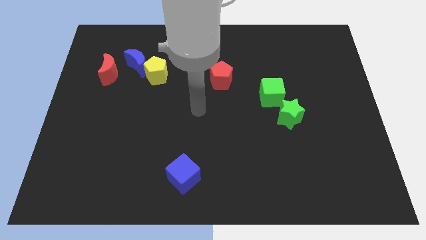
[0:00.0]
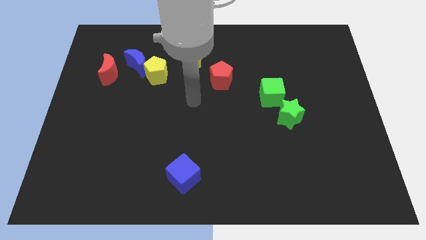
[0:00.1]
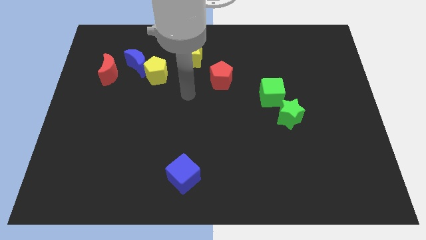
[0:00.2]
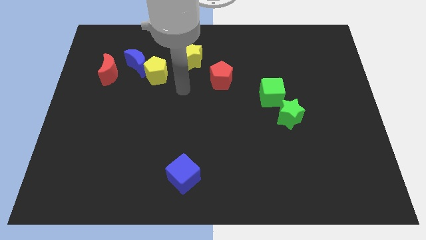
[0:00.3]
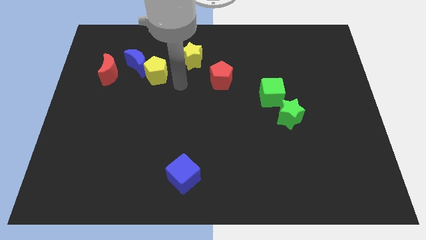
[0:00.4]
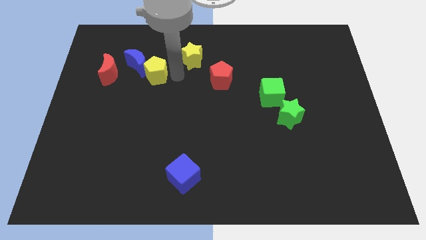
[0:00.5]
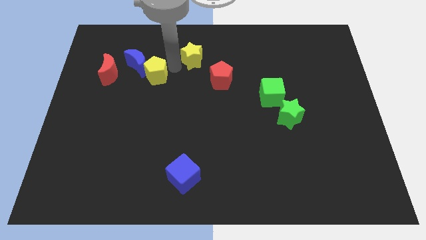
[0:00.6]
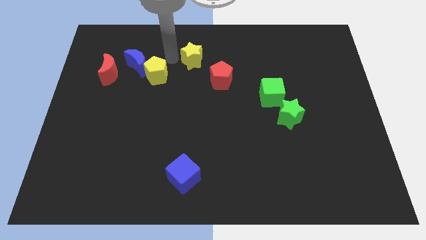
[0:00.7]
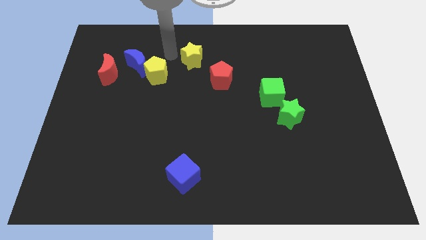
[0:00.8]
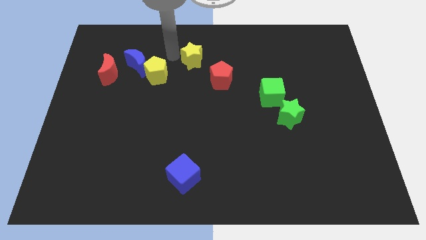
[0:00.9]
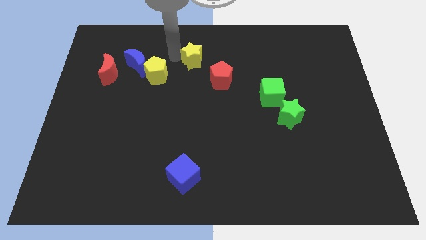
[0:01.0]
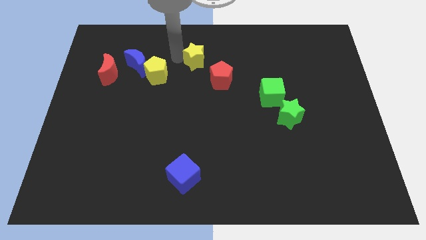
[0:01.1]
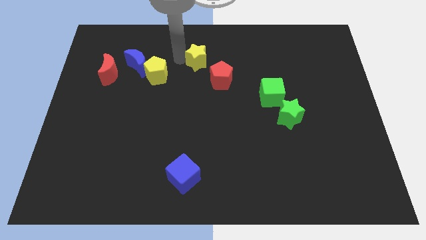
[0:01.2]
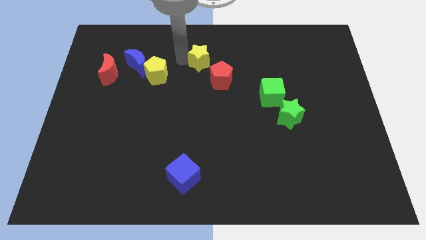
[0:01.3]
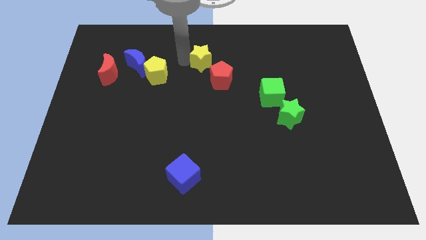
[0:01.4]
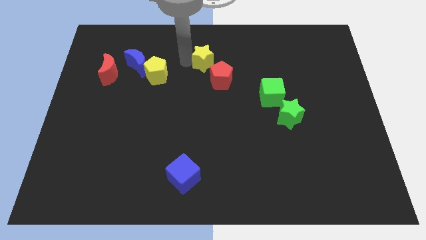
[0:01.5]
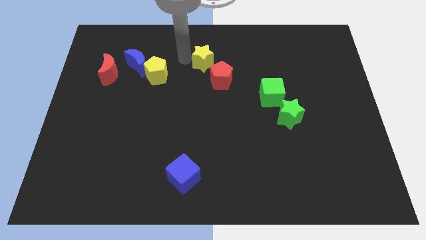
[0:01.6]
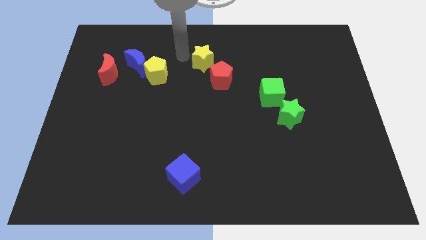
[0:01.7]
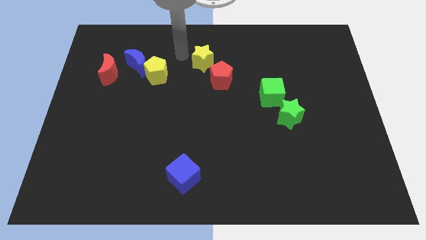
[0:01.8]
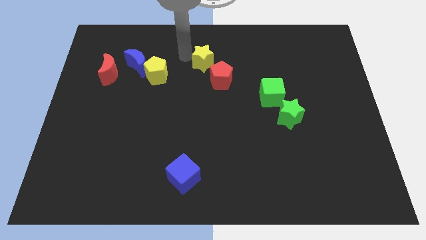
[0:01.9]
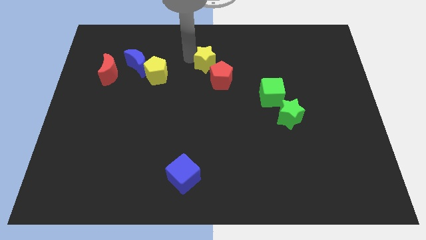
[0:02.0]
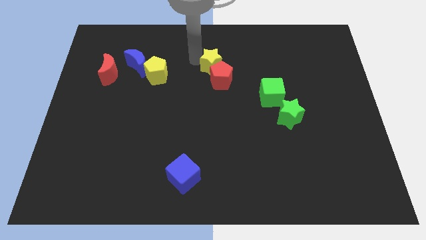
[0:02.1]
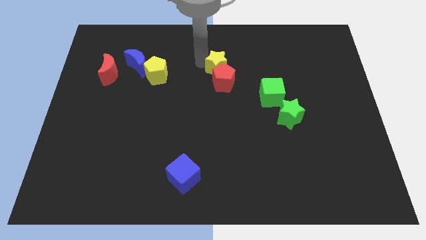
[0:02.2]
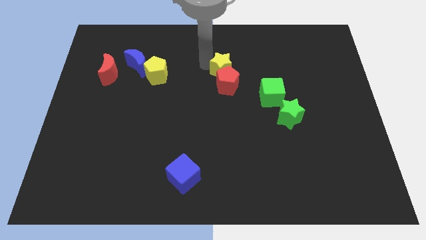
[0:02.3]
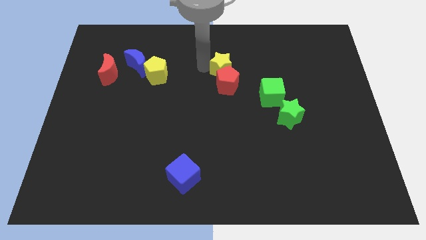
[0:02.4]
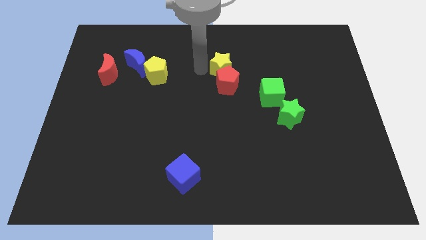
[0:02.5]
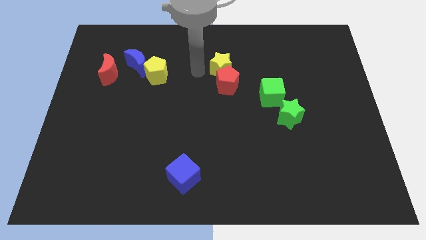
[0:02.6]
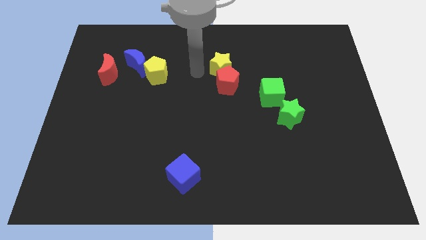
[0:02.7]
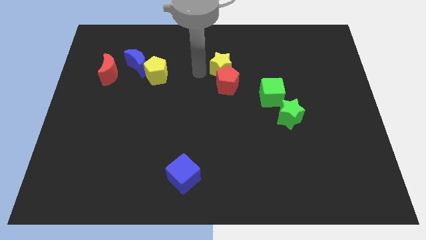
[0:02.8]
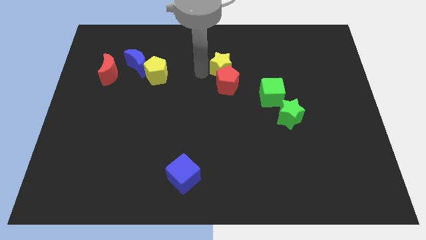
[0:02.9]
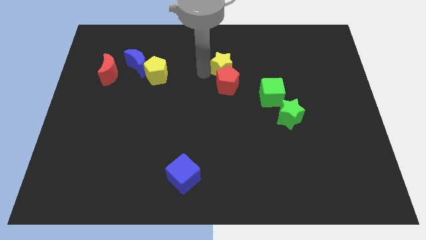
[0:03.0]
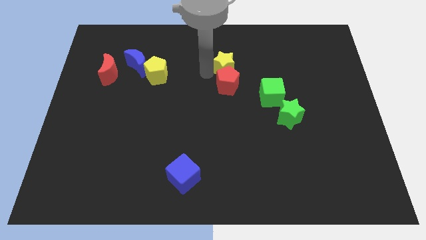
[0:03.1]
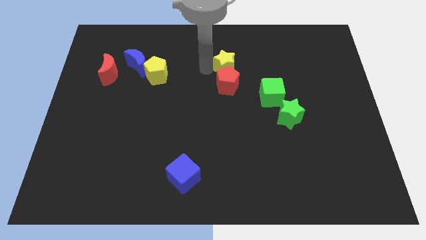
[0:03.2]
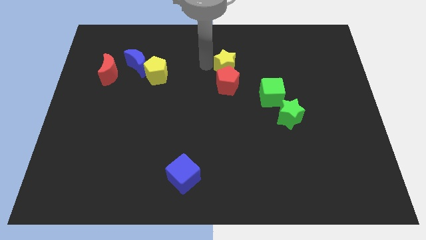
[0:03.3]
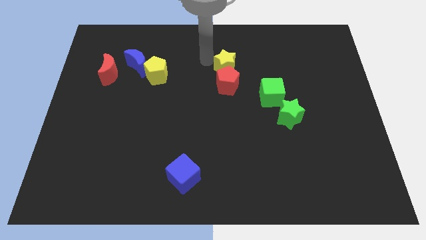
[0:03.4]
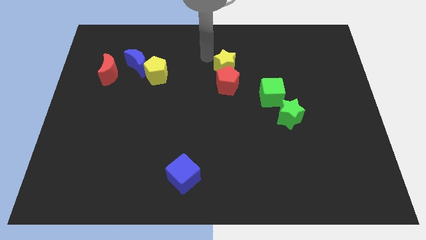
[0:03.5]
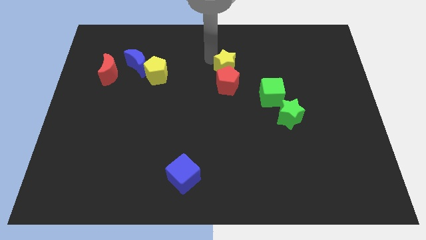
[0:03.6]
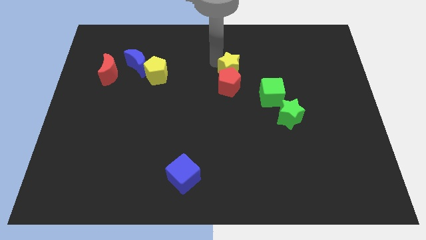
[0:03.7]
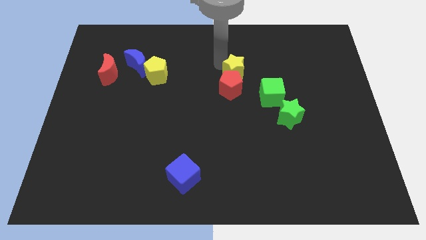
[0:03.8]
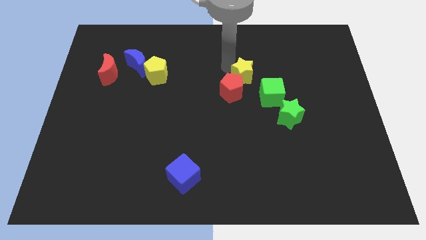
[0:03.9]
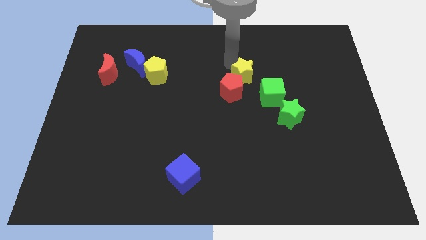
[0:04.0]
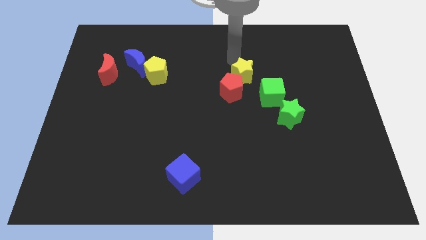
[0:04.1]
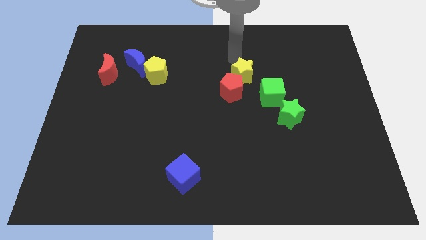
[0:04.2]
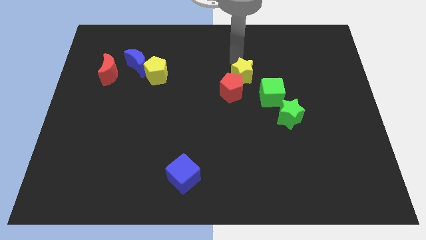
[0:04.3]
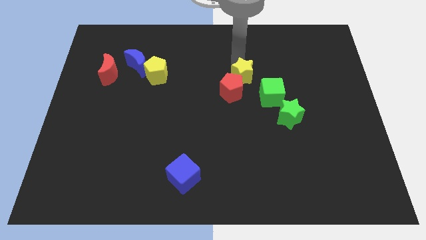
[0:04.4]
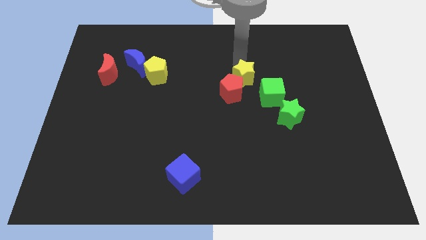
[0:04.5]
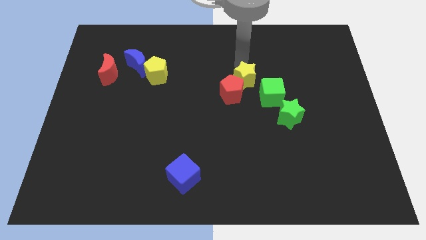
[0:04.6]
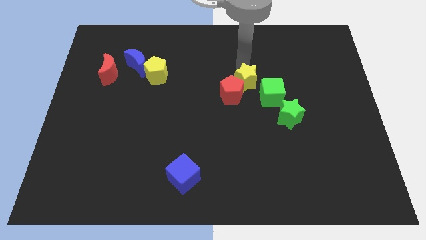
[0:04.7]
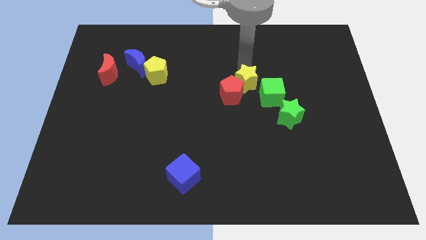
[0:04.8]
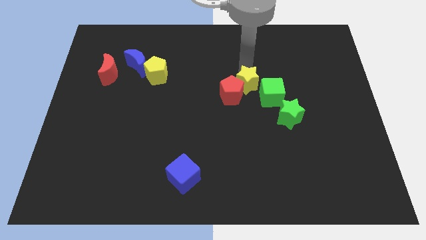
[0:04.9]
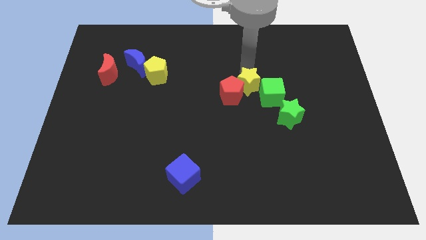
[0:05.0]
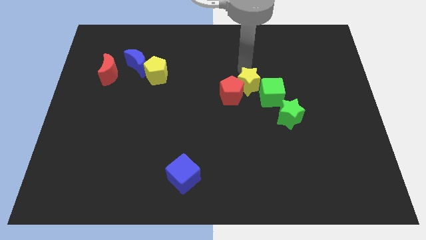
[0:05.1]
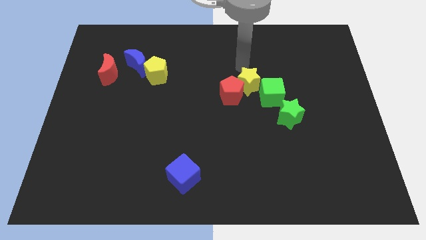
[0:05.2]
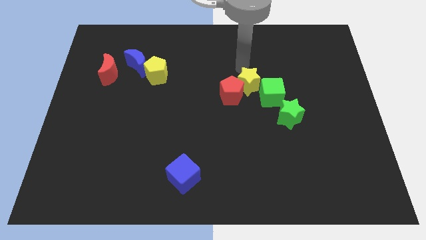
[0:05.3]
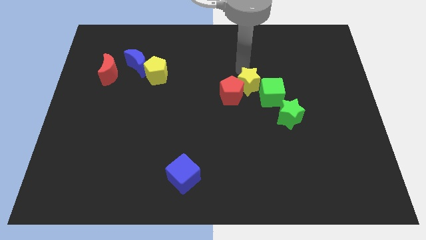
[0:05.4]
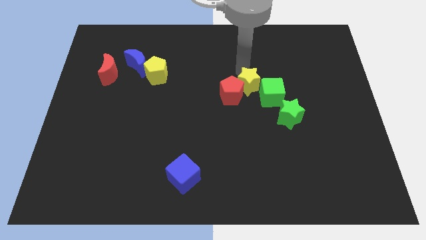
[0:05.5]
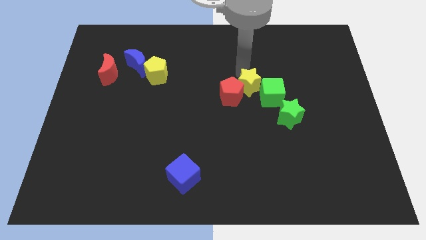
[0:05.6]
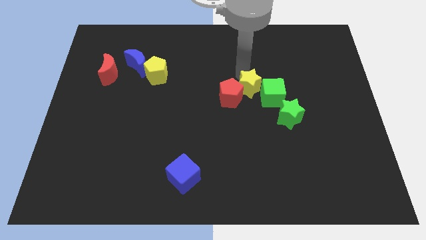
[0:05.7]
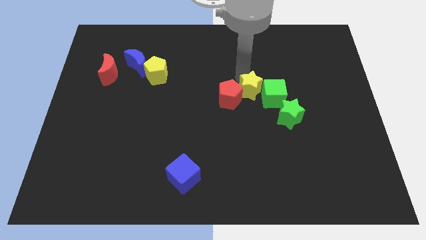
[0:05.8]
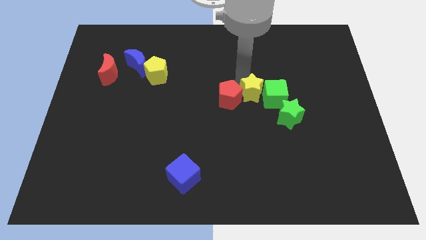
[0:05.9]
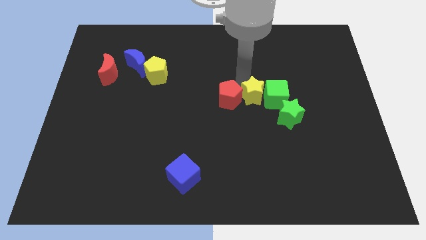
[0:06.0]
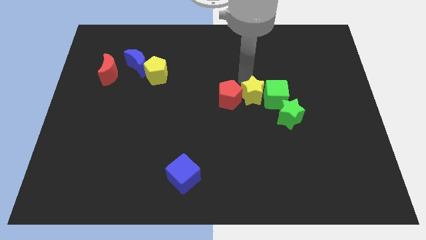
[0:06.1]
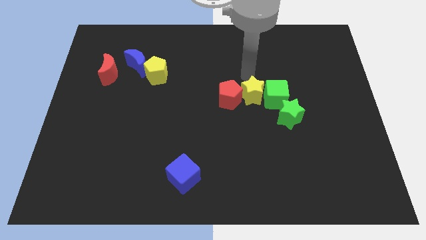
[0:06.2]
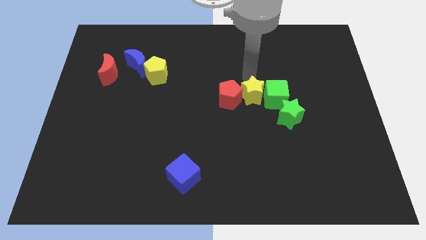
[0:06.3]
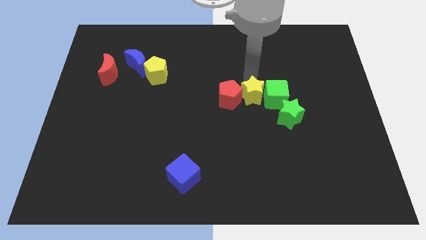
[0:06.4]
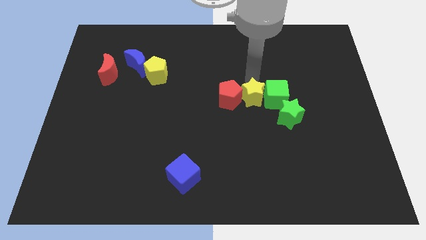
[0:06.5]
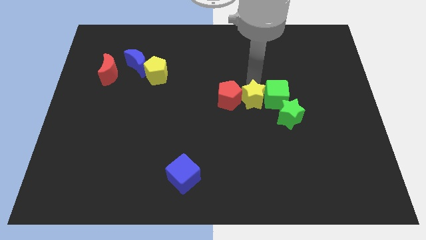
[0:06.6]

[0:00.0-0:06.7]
push the yellow star diagonally downwards and to the right

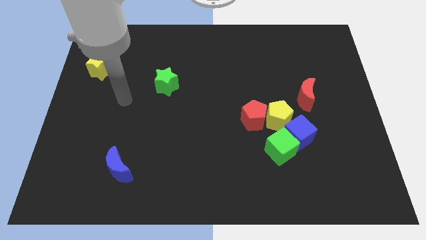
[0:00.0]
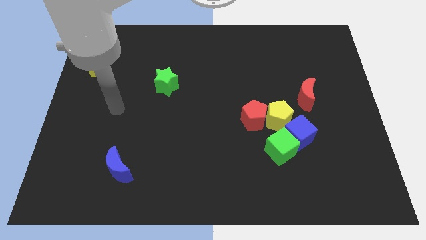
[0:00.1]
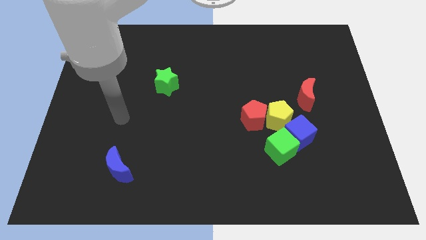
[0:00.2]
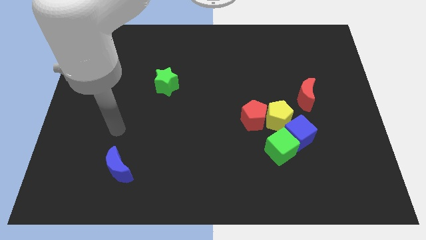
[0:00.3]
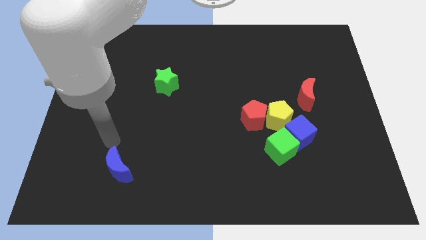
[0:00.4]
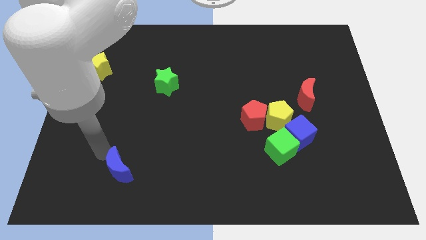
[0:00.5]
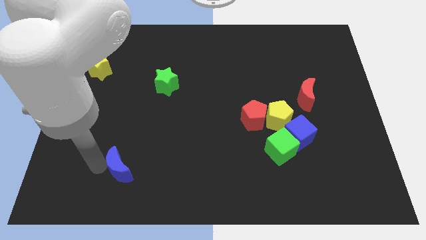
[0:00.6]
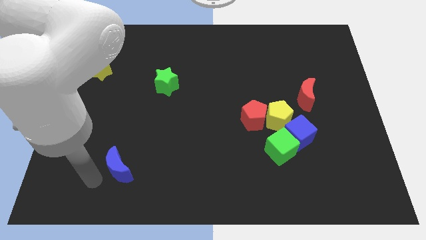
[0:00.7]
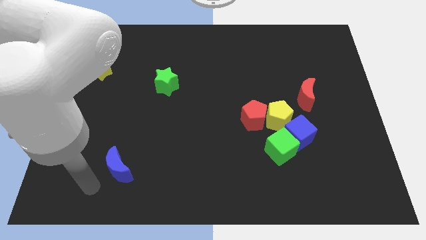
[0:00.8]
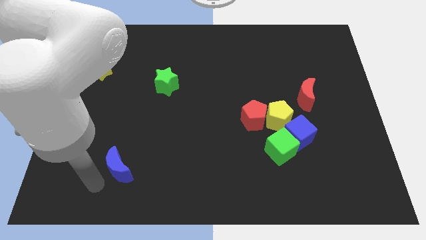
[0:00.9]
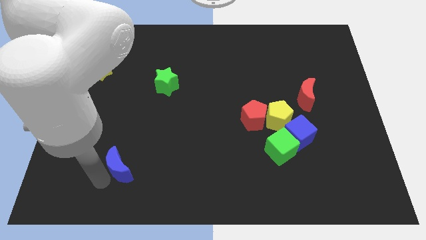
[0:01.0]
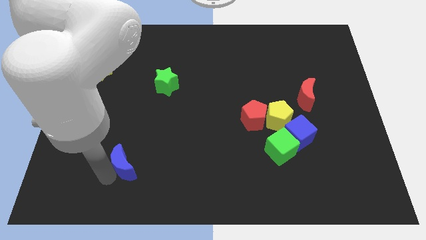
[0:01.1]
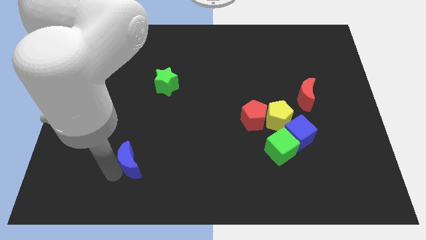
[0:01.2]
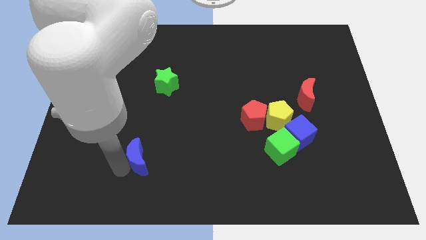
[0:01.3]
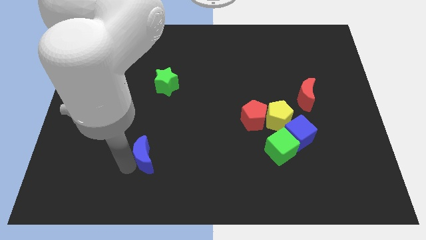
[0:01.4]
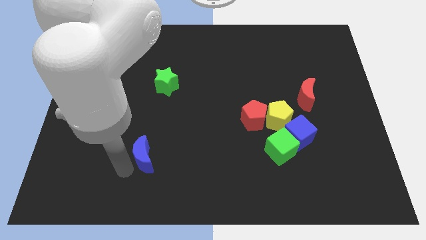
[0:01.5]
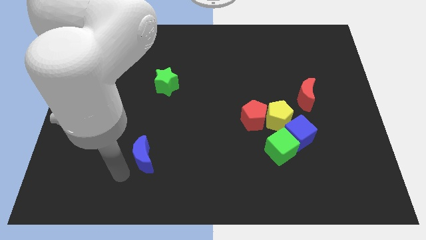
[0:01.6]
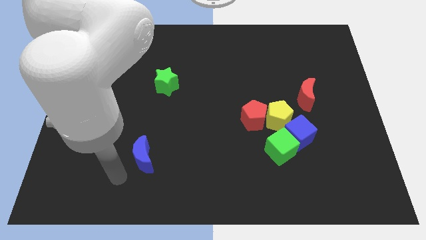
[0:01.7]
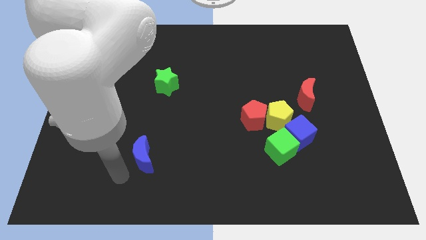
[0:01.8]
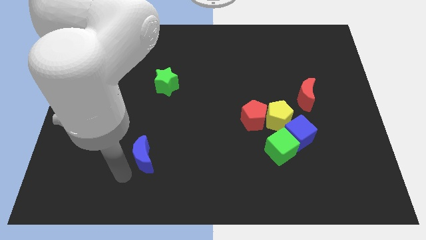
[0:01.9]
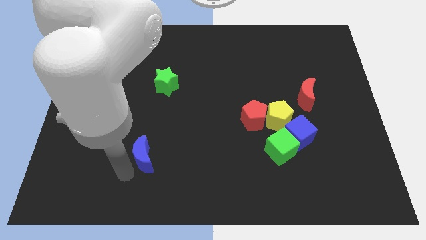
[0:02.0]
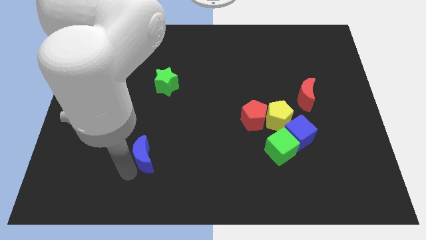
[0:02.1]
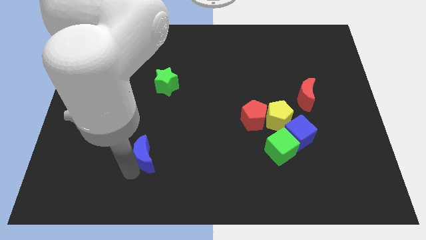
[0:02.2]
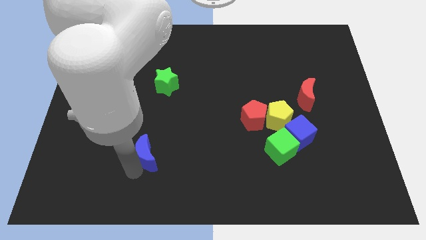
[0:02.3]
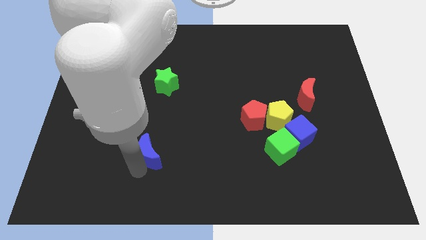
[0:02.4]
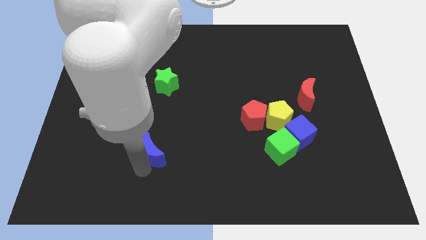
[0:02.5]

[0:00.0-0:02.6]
push the blue moon slightly diagonally up and right
